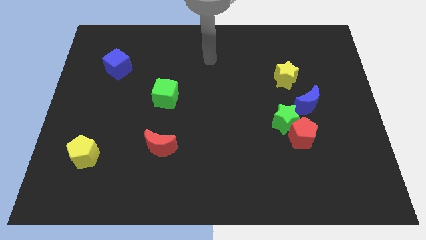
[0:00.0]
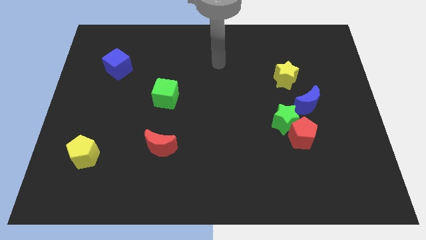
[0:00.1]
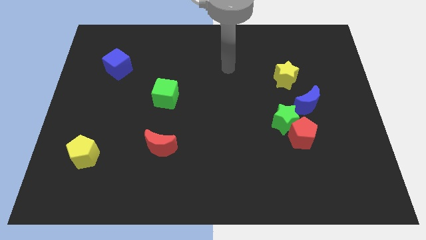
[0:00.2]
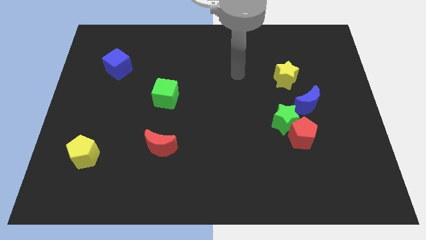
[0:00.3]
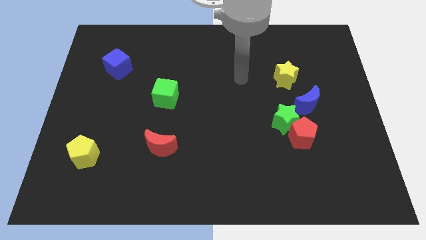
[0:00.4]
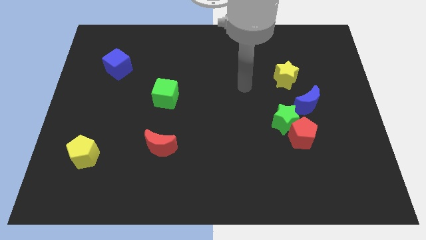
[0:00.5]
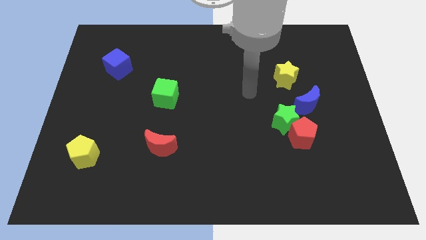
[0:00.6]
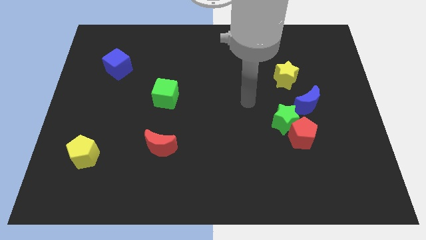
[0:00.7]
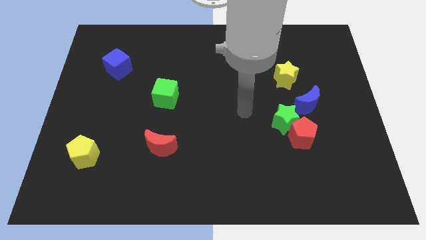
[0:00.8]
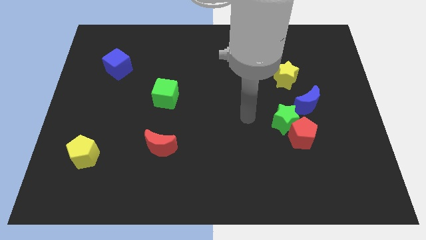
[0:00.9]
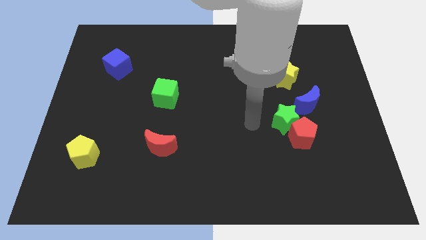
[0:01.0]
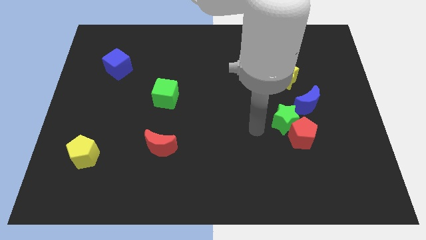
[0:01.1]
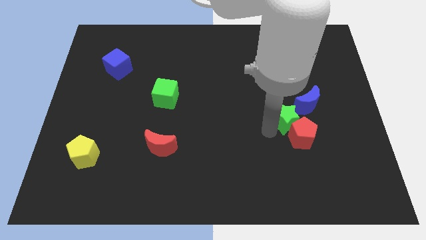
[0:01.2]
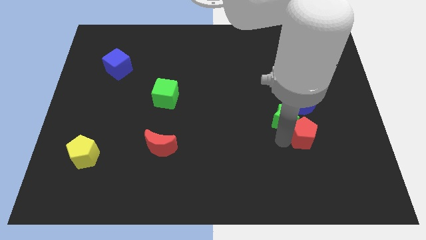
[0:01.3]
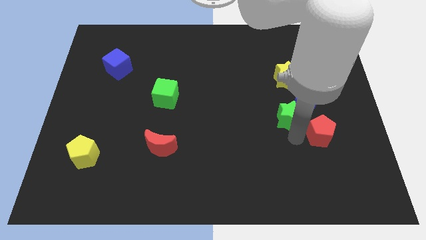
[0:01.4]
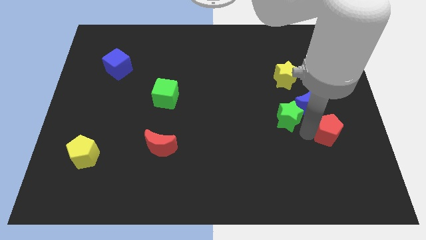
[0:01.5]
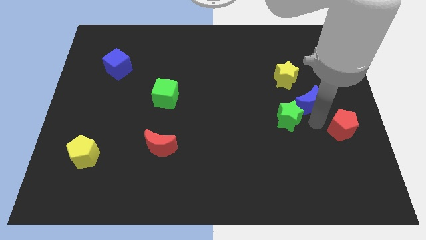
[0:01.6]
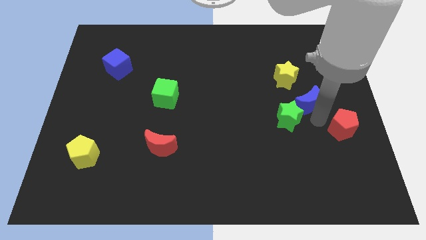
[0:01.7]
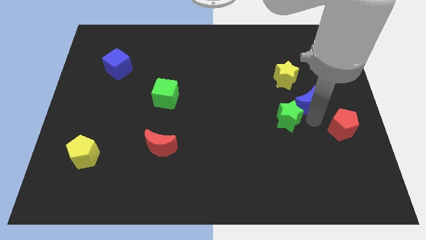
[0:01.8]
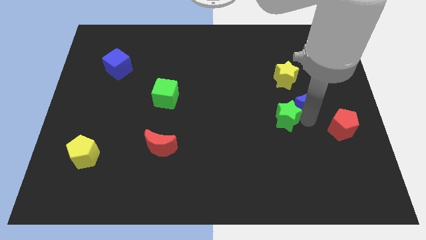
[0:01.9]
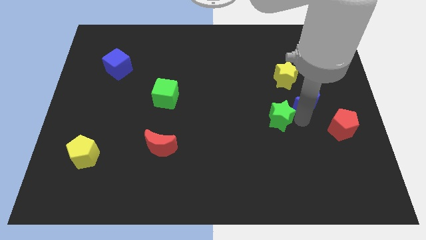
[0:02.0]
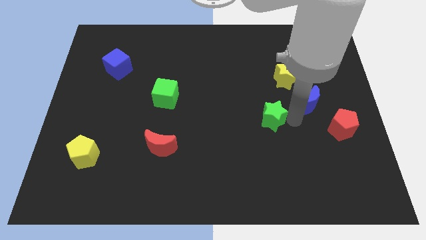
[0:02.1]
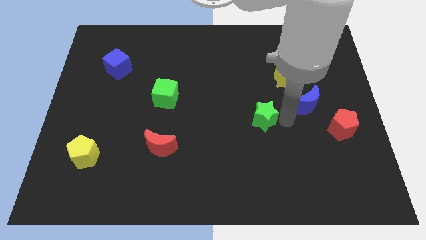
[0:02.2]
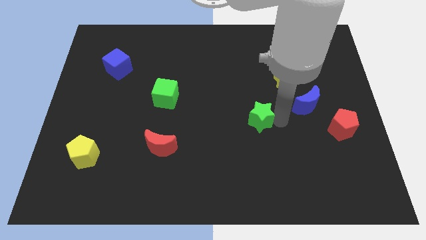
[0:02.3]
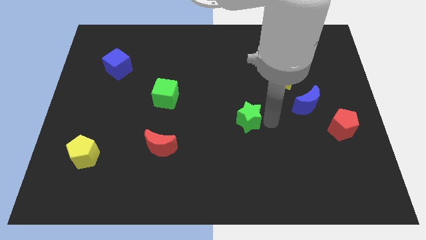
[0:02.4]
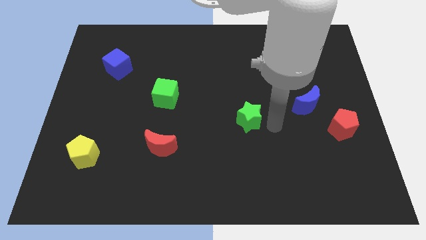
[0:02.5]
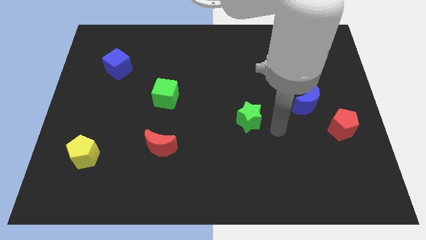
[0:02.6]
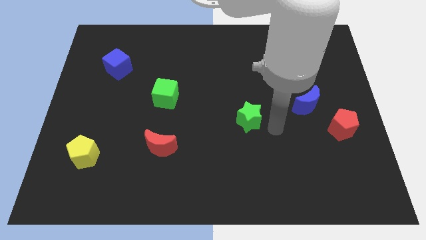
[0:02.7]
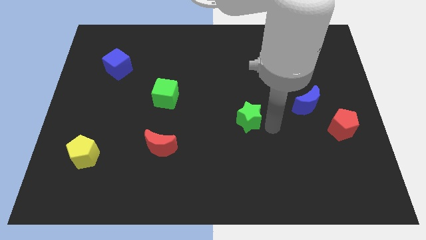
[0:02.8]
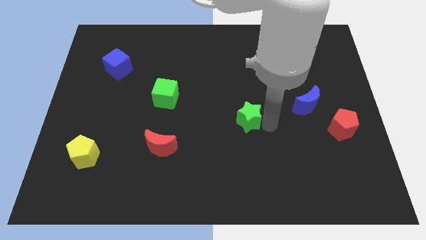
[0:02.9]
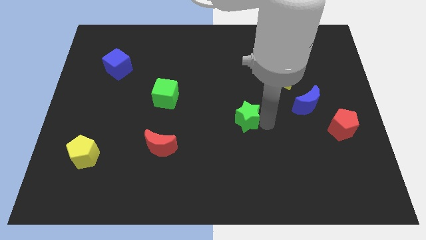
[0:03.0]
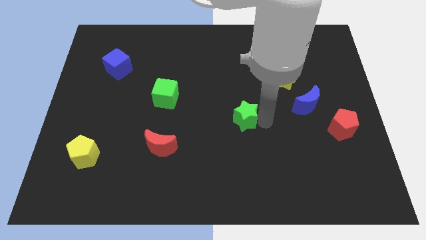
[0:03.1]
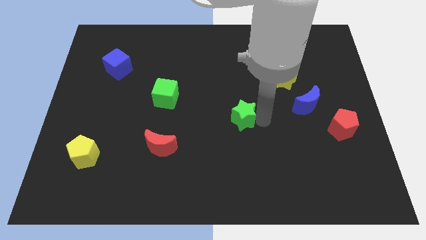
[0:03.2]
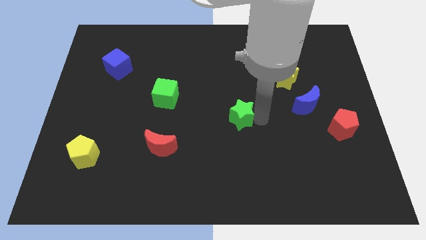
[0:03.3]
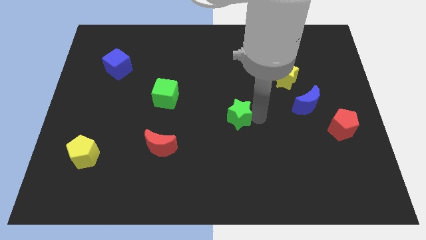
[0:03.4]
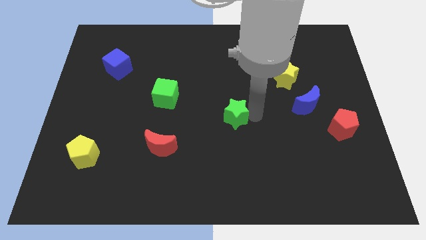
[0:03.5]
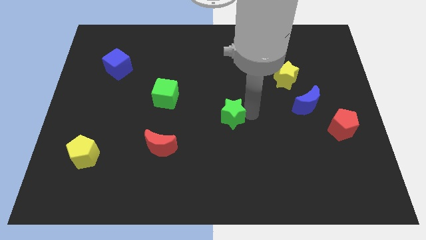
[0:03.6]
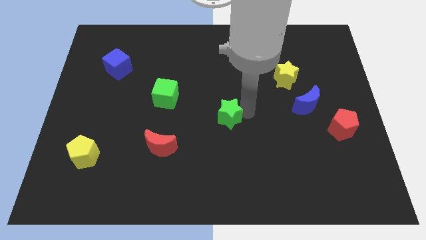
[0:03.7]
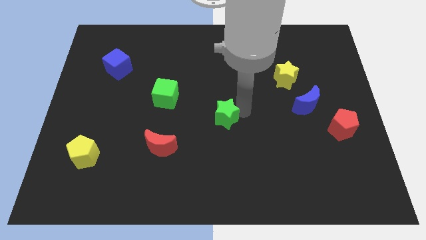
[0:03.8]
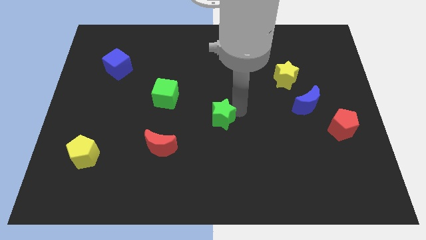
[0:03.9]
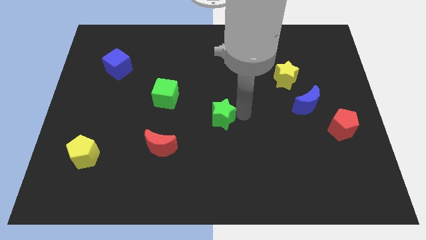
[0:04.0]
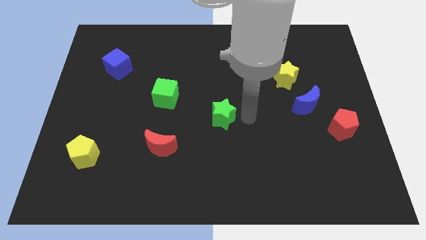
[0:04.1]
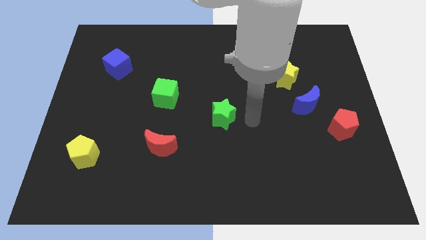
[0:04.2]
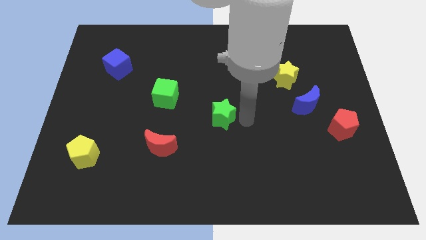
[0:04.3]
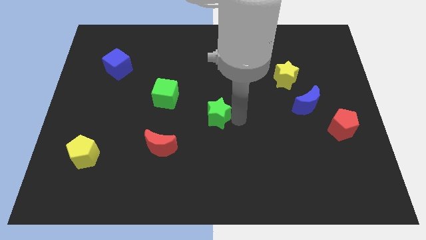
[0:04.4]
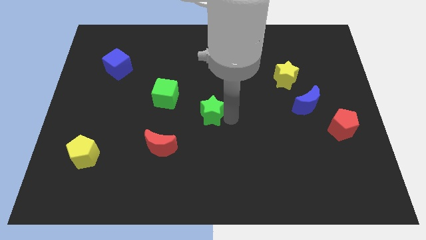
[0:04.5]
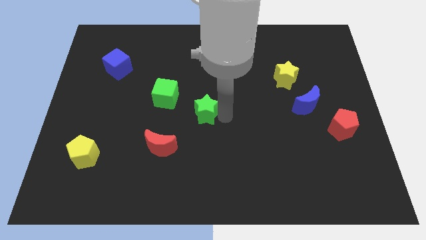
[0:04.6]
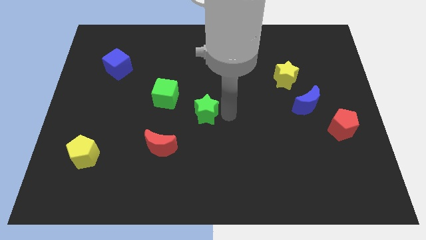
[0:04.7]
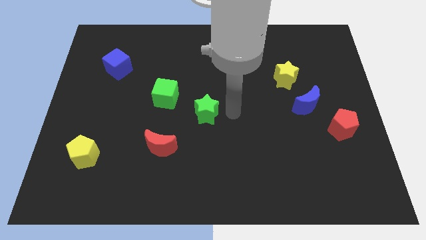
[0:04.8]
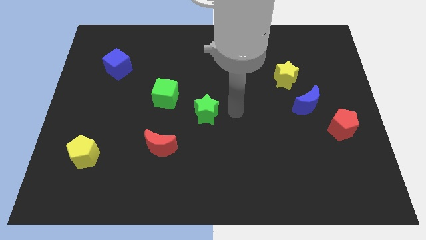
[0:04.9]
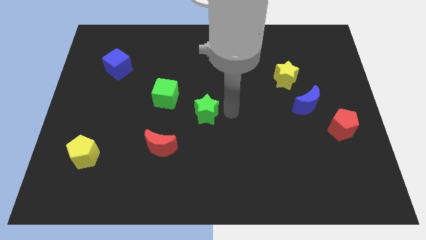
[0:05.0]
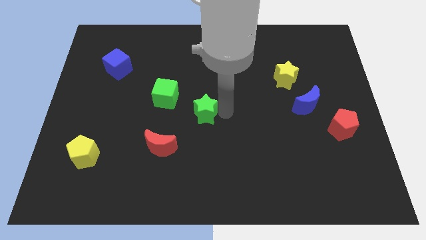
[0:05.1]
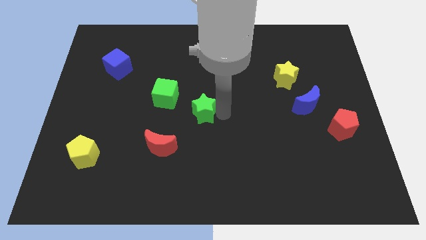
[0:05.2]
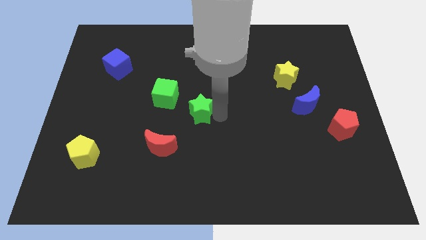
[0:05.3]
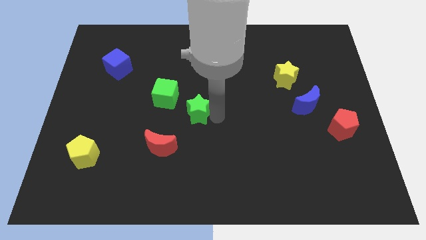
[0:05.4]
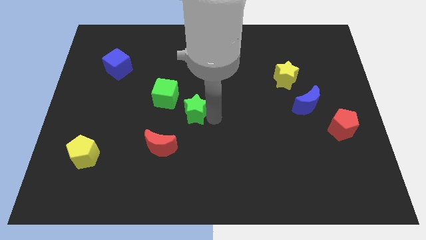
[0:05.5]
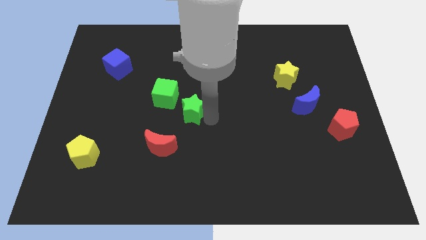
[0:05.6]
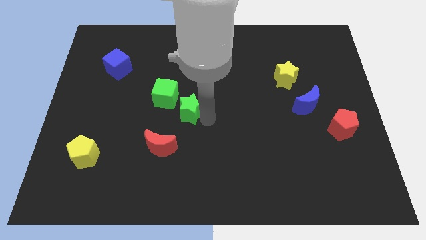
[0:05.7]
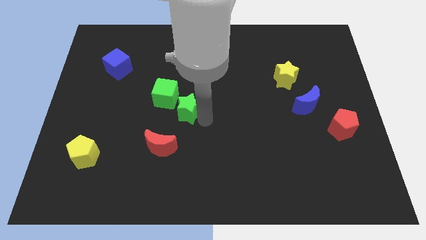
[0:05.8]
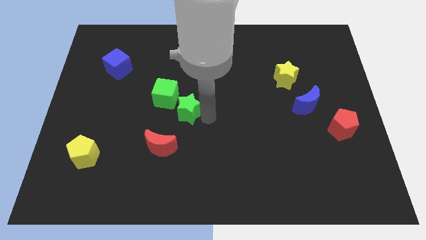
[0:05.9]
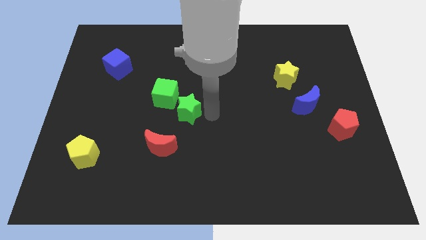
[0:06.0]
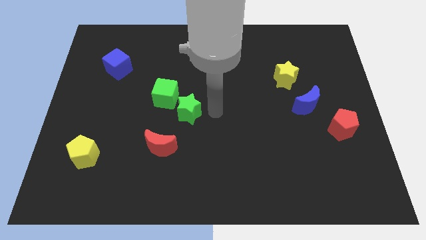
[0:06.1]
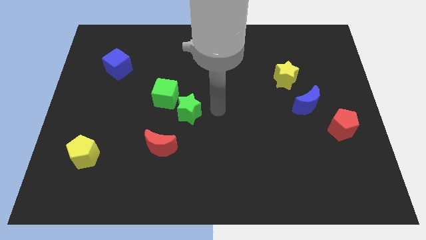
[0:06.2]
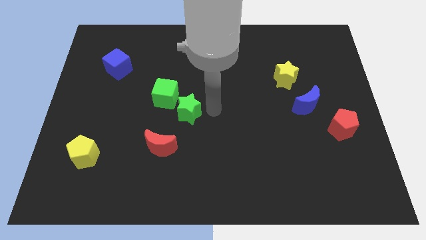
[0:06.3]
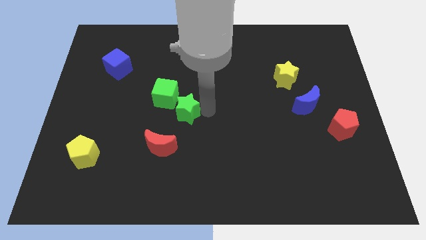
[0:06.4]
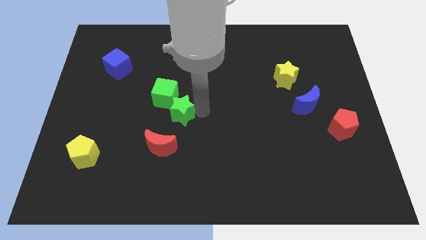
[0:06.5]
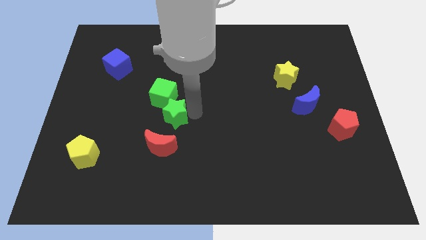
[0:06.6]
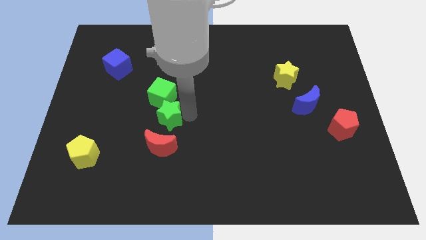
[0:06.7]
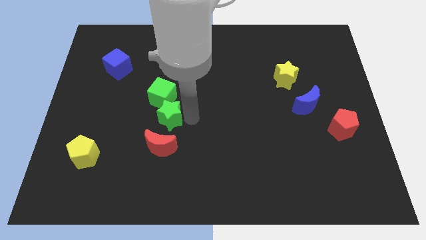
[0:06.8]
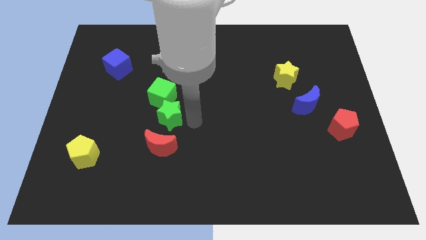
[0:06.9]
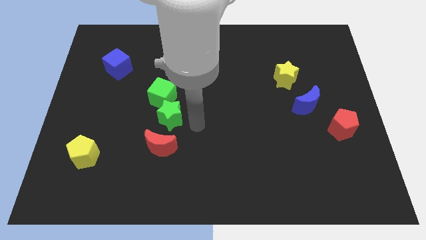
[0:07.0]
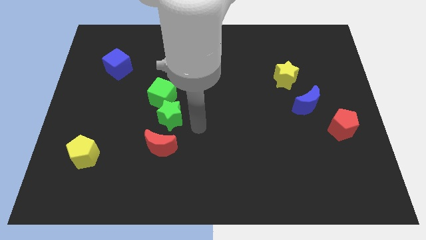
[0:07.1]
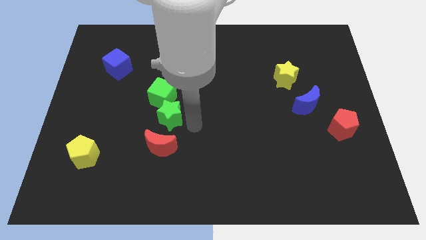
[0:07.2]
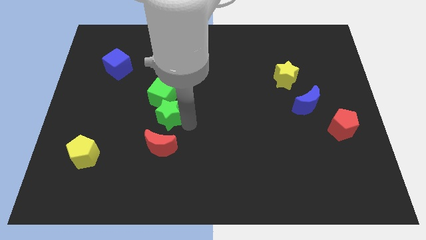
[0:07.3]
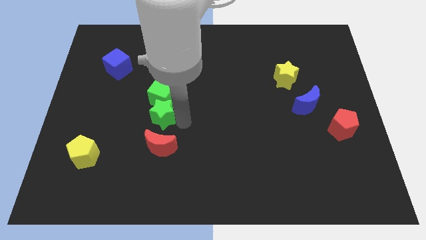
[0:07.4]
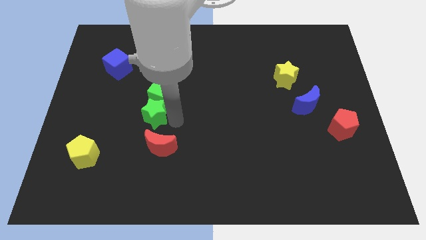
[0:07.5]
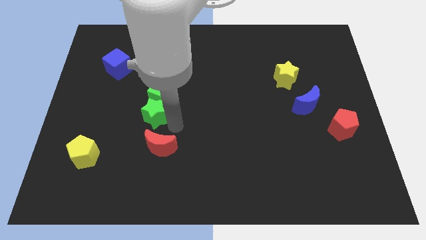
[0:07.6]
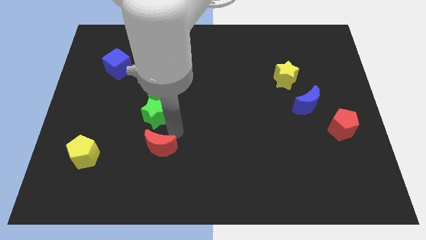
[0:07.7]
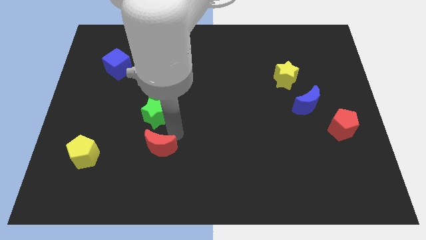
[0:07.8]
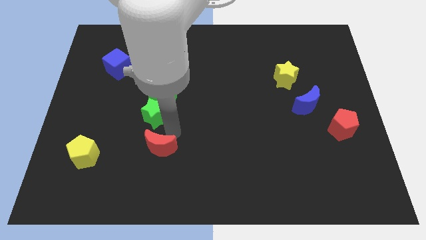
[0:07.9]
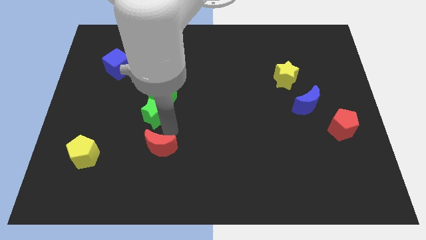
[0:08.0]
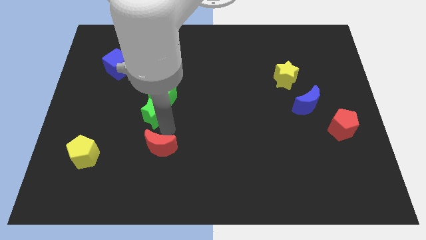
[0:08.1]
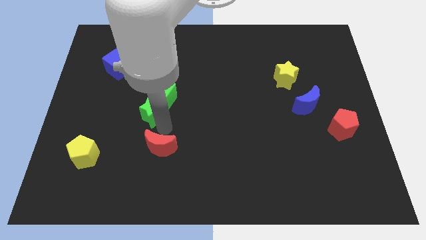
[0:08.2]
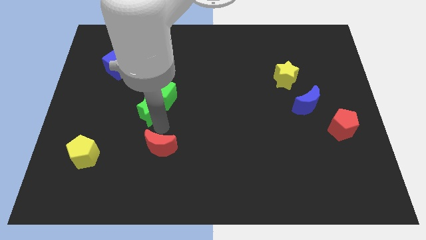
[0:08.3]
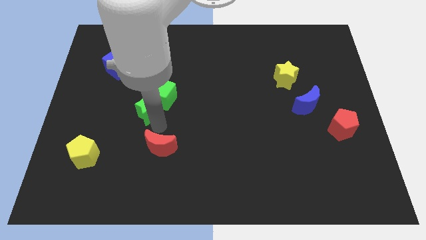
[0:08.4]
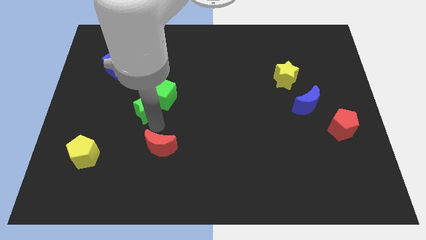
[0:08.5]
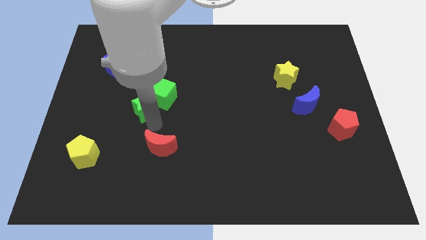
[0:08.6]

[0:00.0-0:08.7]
move the green star to the left side of the green cube
